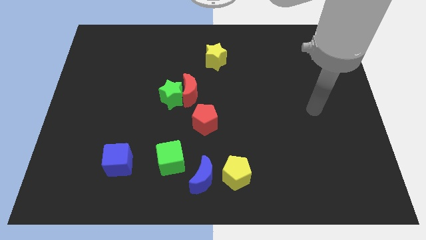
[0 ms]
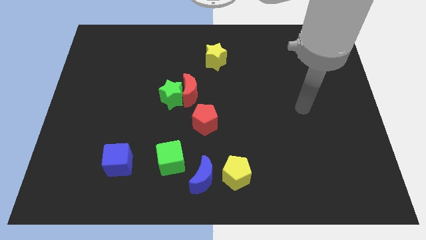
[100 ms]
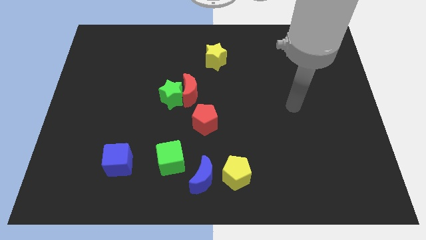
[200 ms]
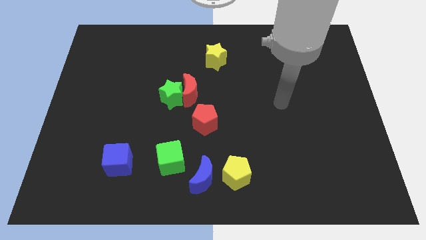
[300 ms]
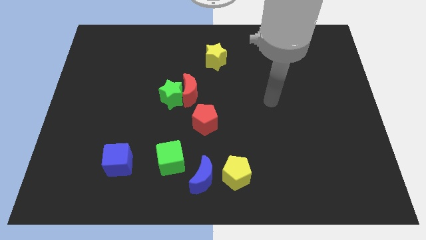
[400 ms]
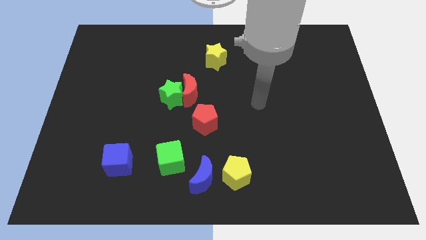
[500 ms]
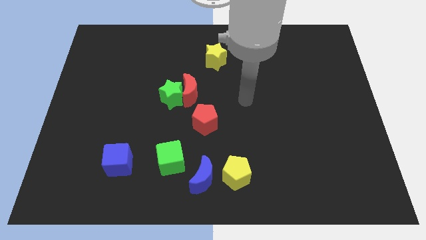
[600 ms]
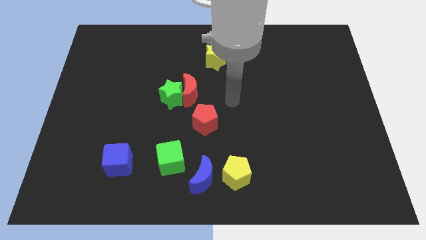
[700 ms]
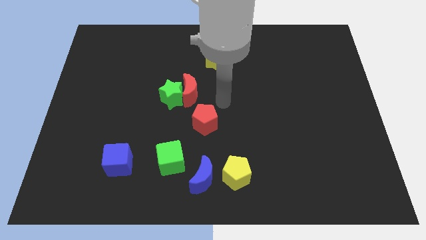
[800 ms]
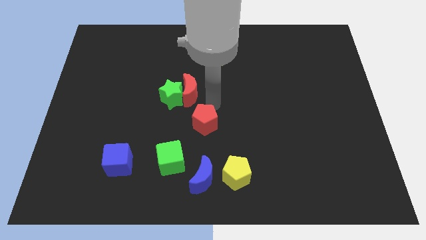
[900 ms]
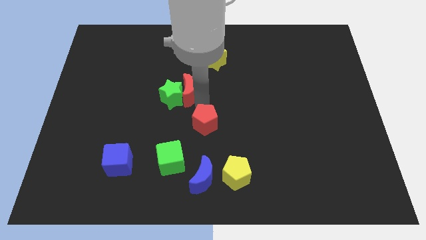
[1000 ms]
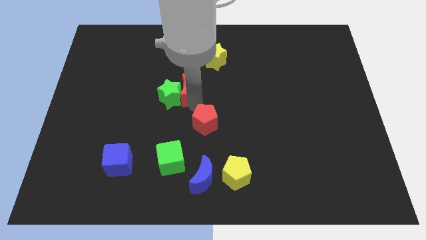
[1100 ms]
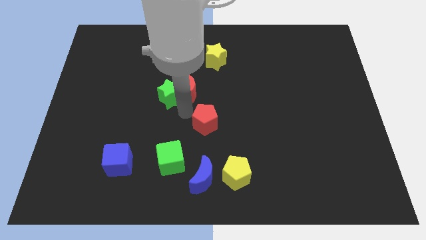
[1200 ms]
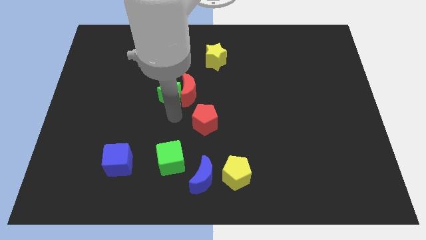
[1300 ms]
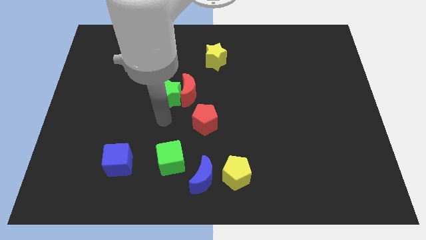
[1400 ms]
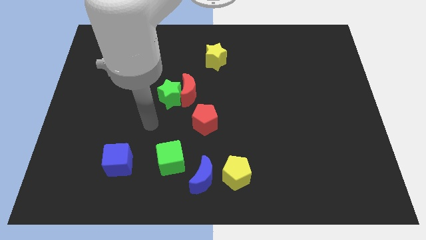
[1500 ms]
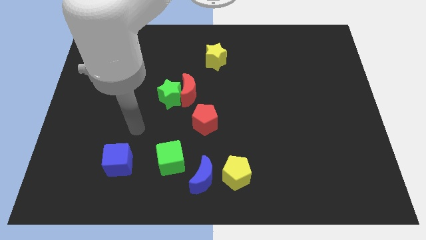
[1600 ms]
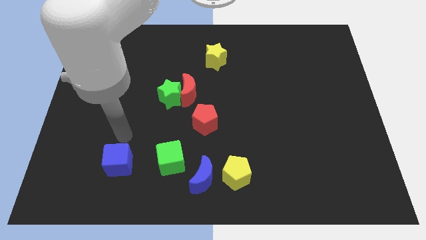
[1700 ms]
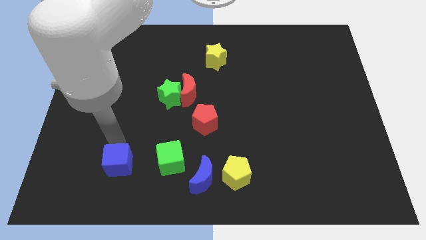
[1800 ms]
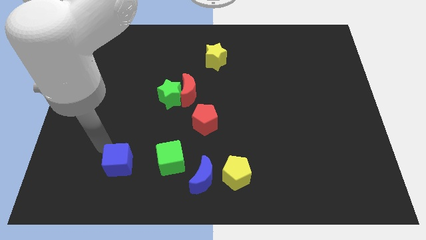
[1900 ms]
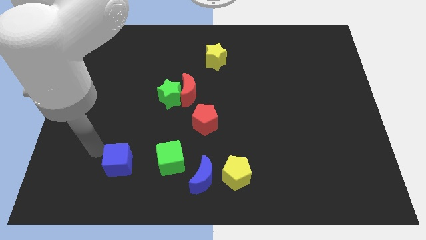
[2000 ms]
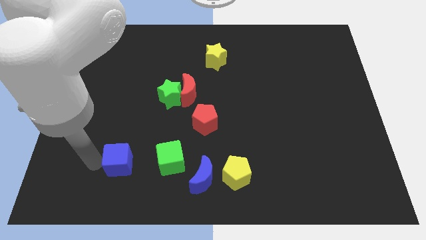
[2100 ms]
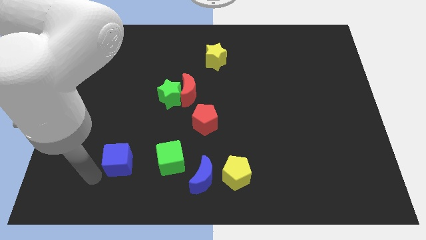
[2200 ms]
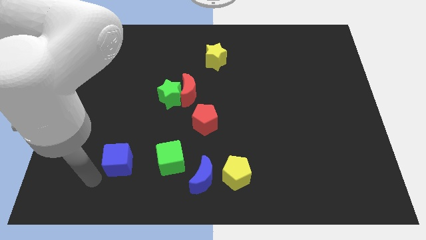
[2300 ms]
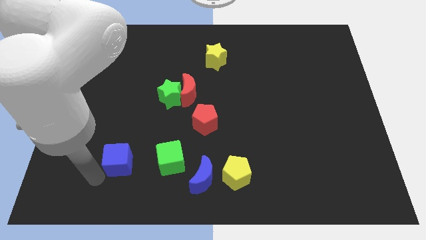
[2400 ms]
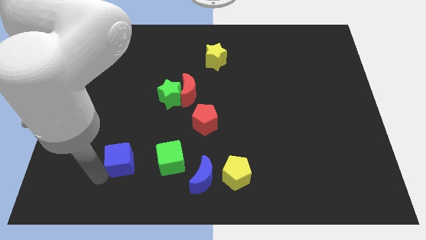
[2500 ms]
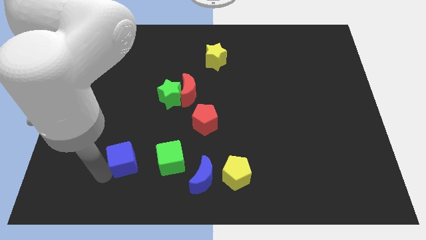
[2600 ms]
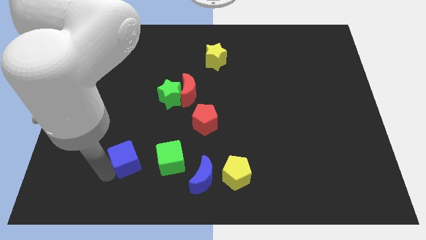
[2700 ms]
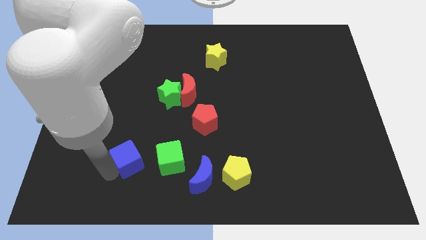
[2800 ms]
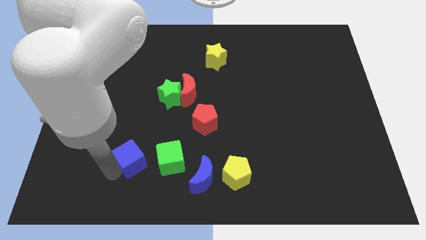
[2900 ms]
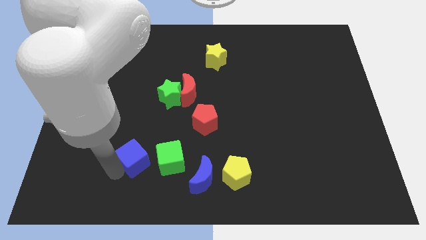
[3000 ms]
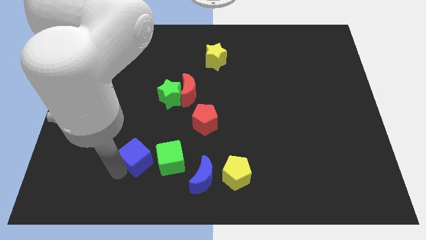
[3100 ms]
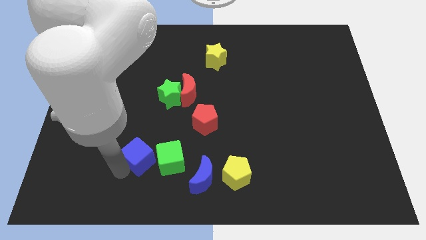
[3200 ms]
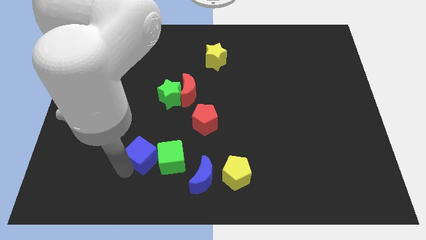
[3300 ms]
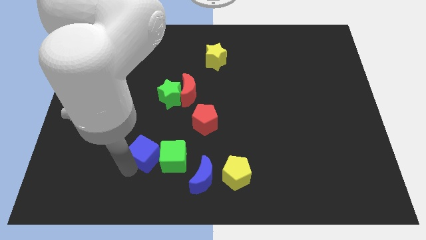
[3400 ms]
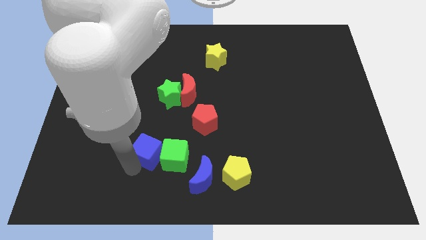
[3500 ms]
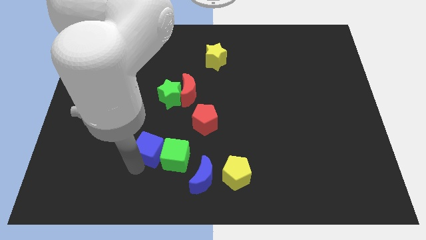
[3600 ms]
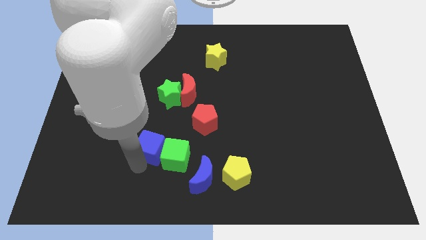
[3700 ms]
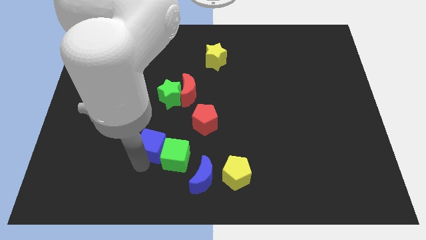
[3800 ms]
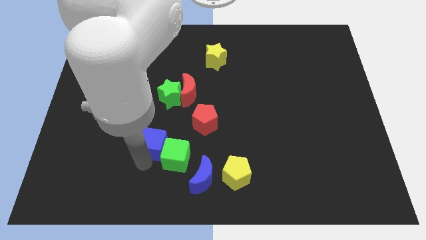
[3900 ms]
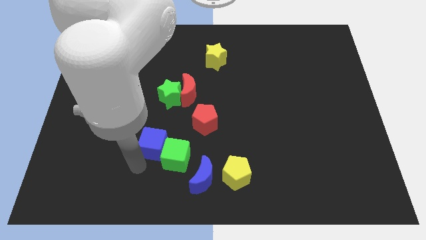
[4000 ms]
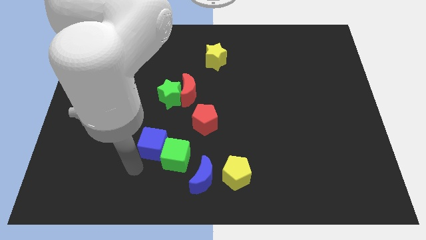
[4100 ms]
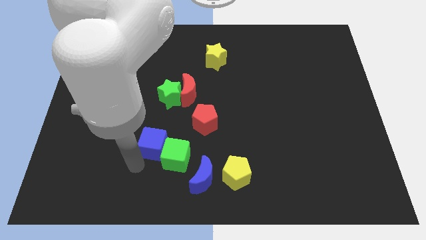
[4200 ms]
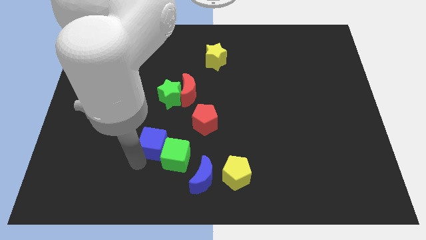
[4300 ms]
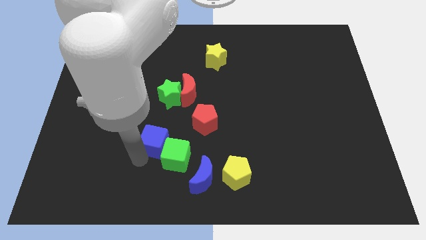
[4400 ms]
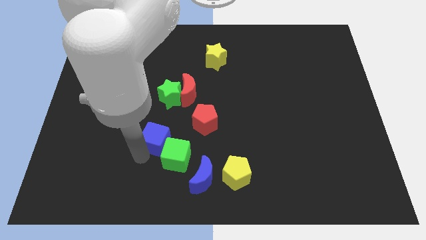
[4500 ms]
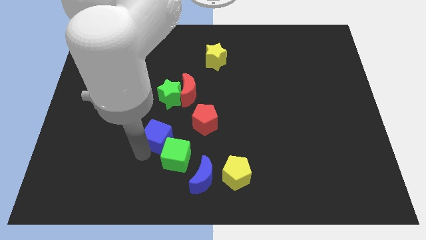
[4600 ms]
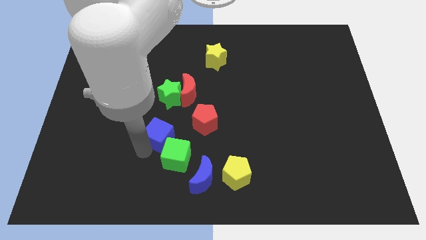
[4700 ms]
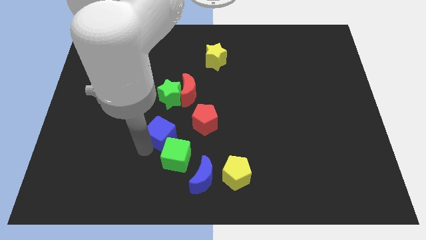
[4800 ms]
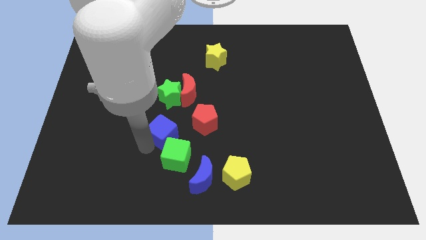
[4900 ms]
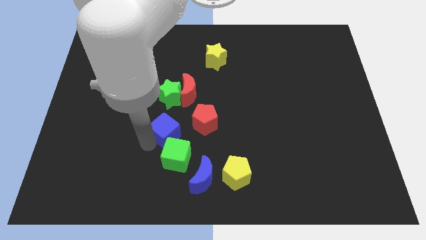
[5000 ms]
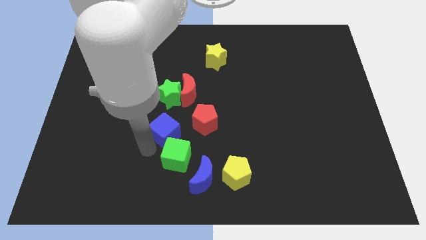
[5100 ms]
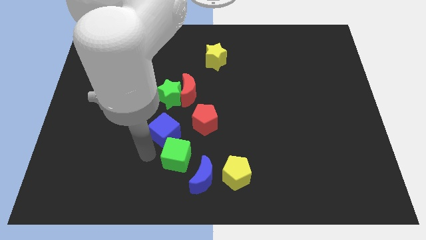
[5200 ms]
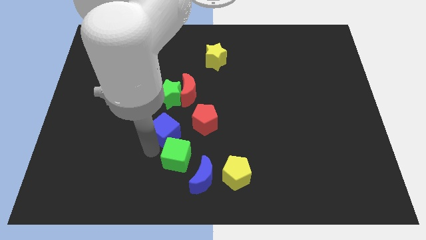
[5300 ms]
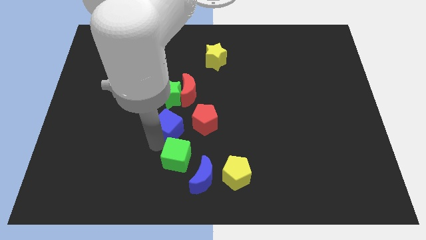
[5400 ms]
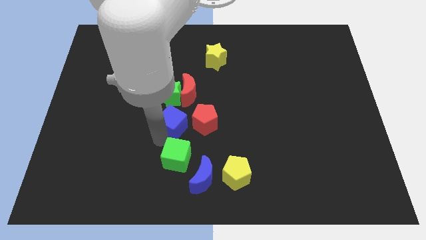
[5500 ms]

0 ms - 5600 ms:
slide the blue cube to the middle
